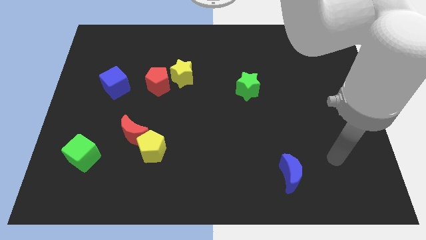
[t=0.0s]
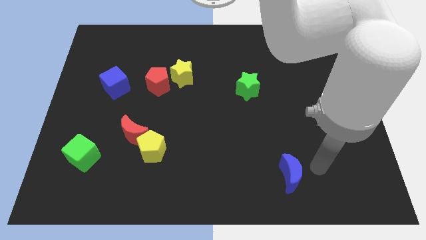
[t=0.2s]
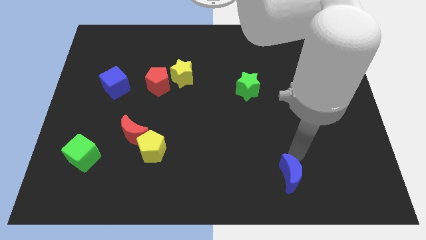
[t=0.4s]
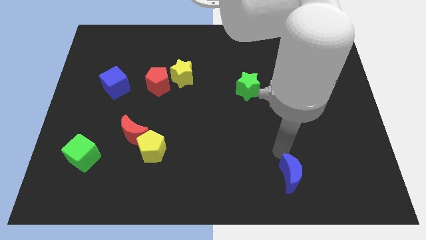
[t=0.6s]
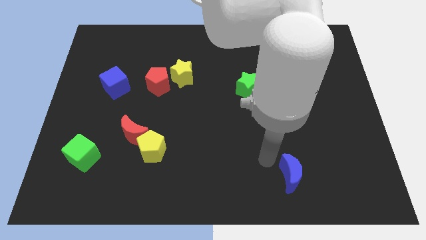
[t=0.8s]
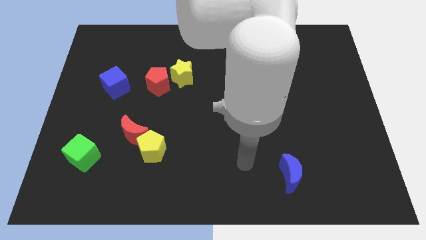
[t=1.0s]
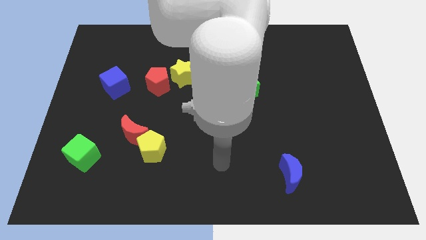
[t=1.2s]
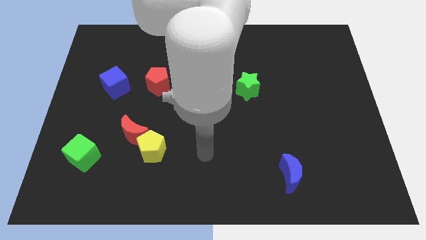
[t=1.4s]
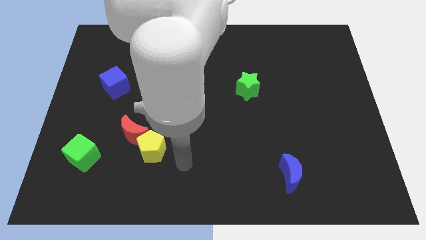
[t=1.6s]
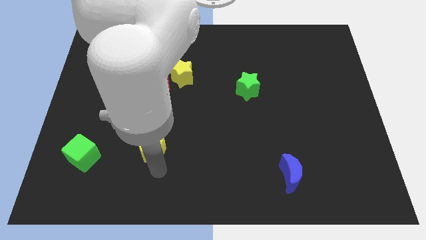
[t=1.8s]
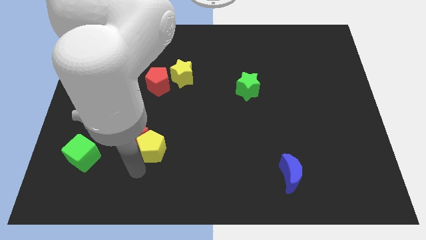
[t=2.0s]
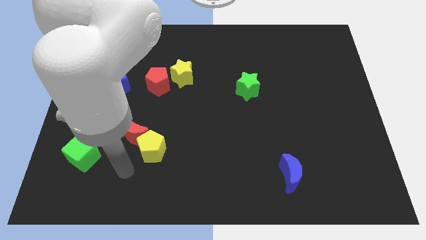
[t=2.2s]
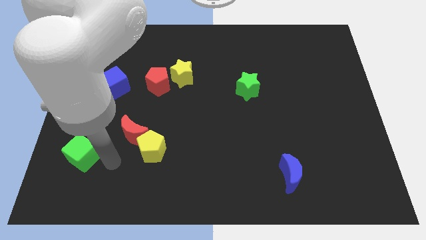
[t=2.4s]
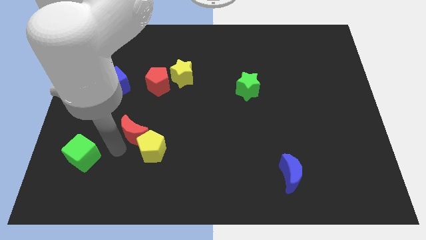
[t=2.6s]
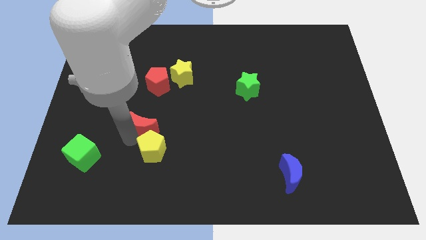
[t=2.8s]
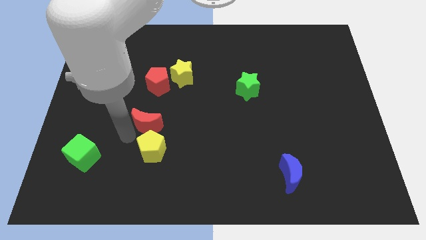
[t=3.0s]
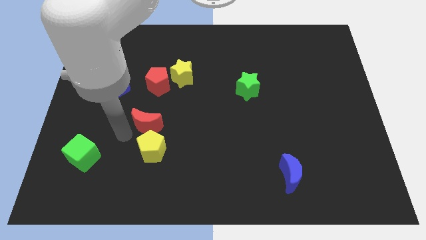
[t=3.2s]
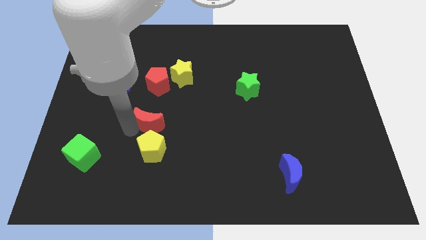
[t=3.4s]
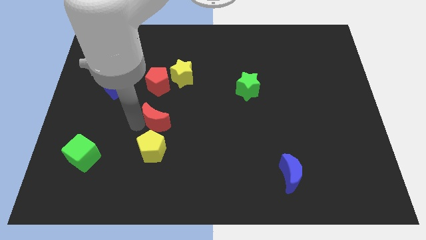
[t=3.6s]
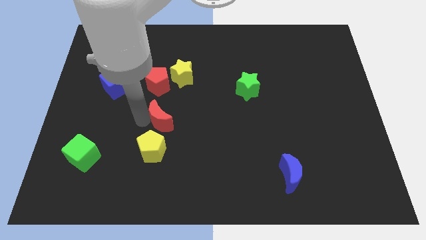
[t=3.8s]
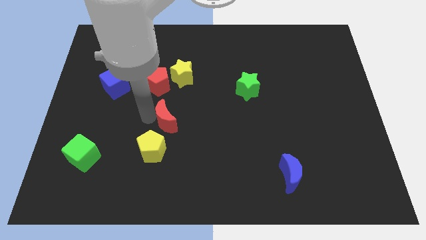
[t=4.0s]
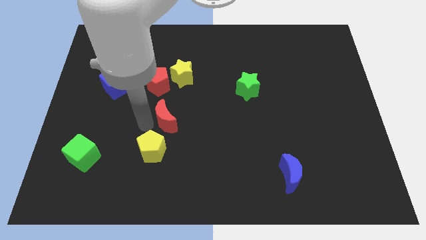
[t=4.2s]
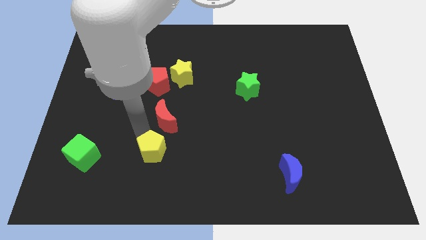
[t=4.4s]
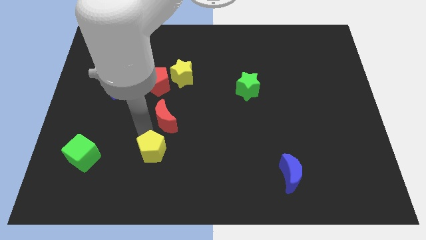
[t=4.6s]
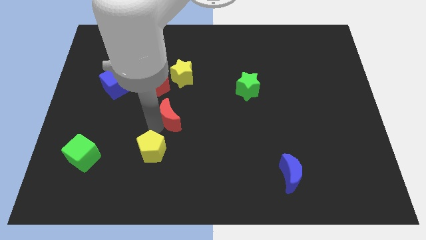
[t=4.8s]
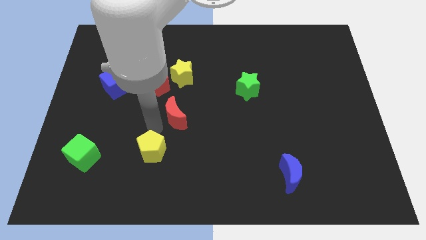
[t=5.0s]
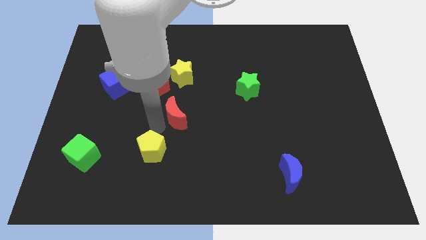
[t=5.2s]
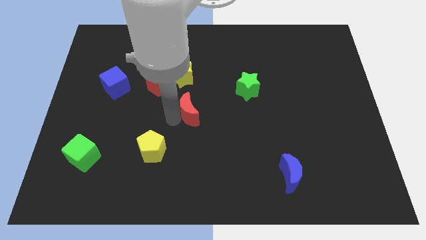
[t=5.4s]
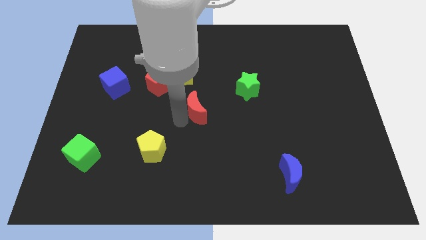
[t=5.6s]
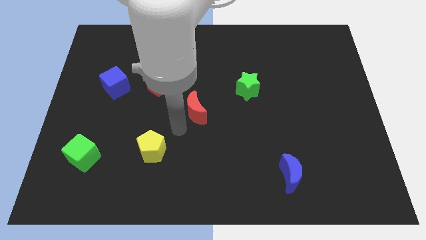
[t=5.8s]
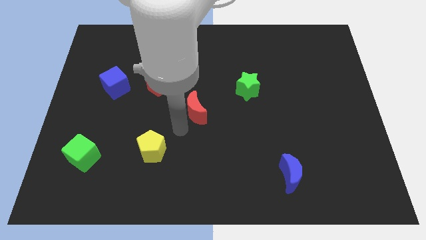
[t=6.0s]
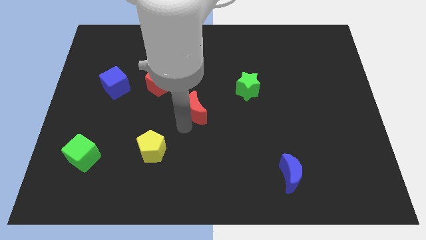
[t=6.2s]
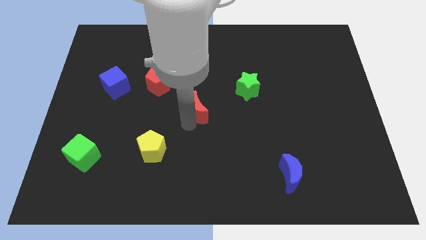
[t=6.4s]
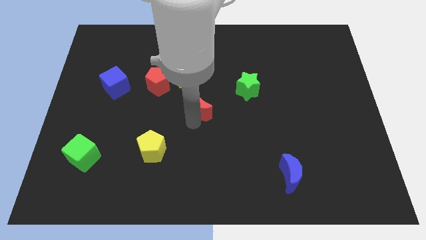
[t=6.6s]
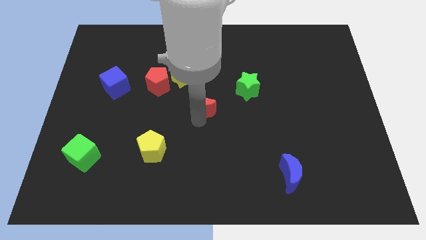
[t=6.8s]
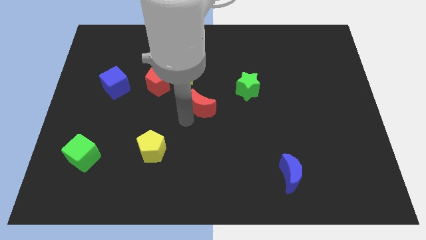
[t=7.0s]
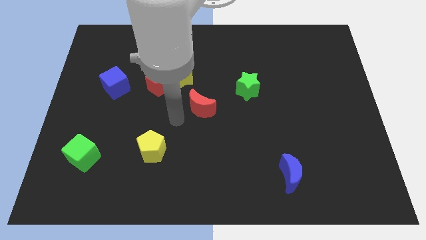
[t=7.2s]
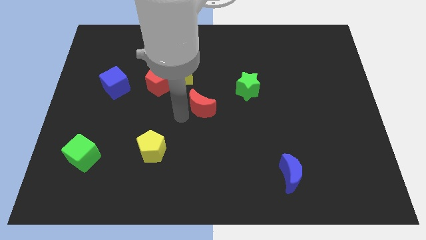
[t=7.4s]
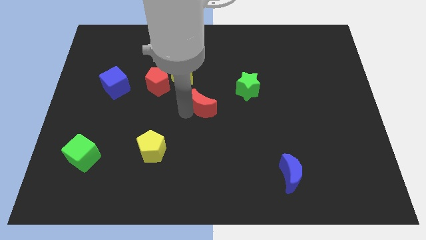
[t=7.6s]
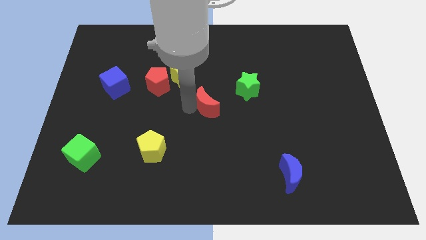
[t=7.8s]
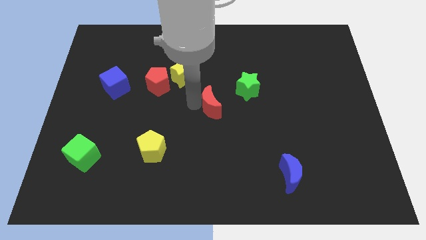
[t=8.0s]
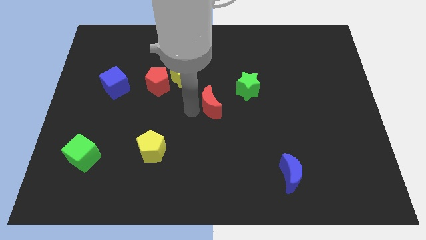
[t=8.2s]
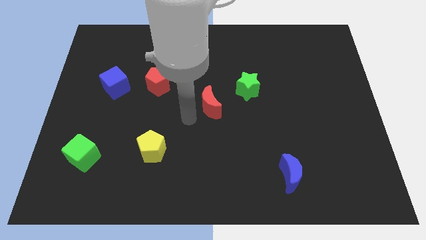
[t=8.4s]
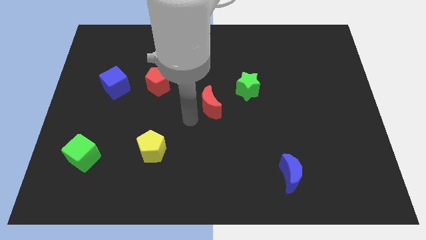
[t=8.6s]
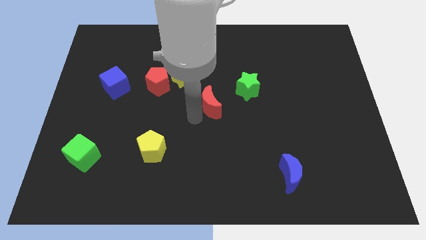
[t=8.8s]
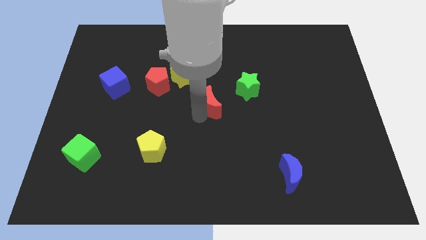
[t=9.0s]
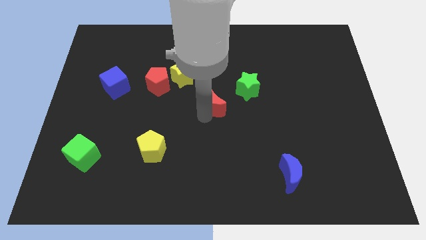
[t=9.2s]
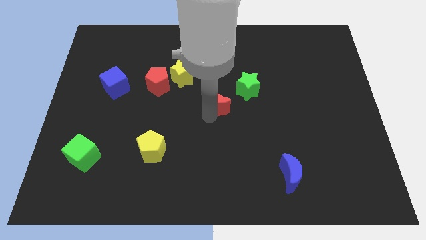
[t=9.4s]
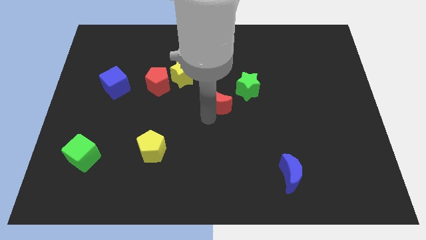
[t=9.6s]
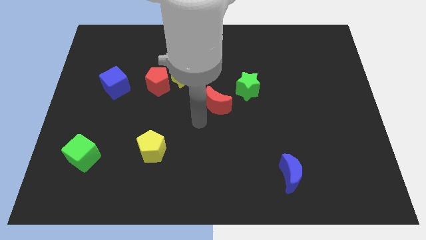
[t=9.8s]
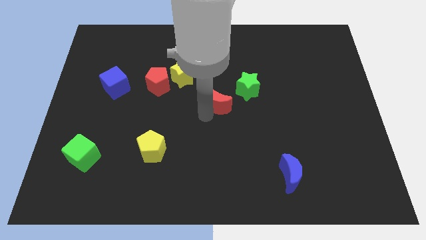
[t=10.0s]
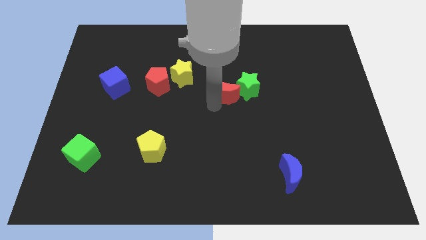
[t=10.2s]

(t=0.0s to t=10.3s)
move the red moon close to the green star

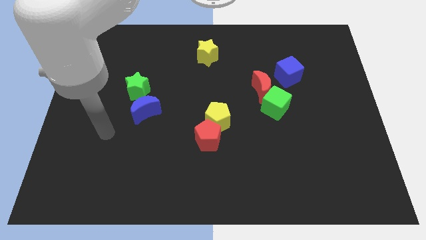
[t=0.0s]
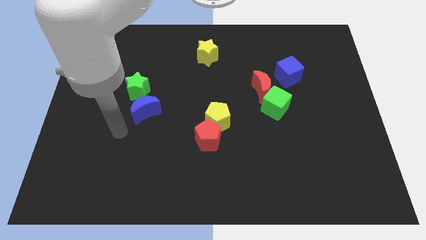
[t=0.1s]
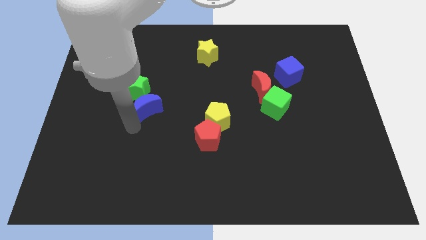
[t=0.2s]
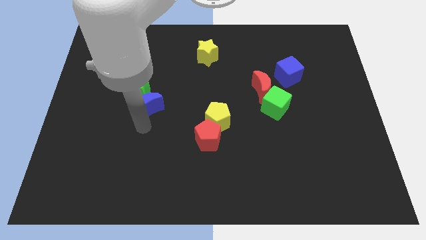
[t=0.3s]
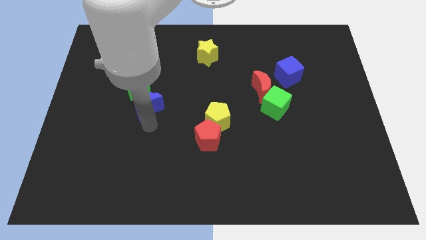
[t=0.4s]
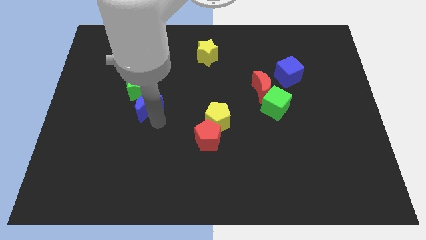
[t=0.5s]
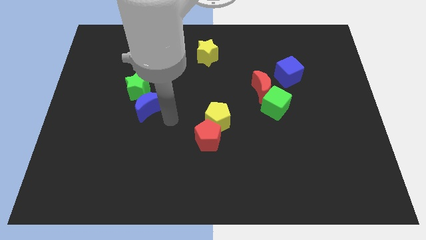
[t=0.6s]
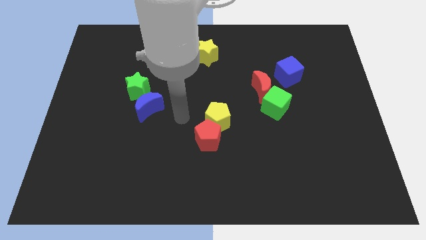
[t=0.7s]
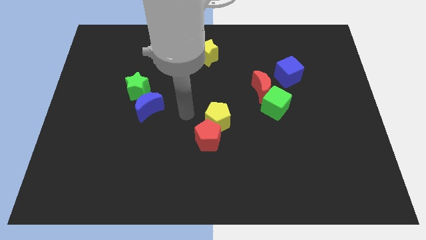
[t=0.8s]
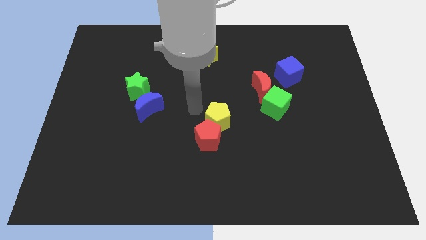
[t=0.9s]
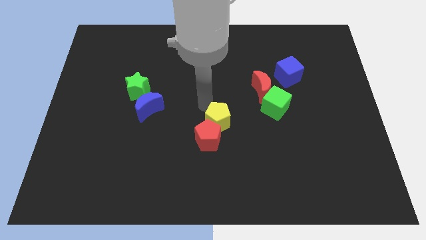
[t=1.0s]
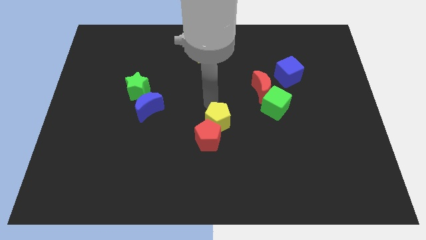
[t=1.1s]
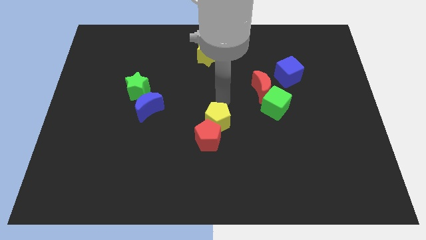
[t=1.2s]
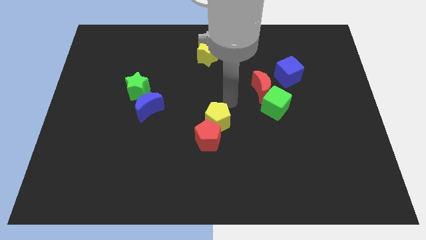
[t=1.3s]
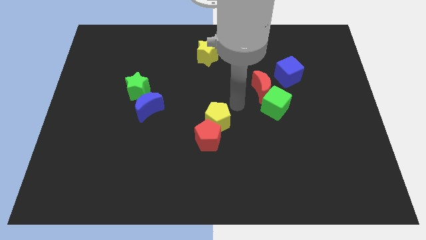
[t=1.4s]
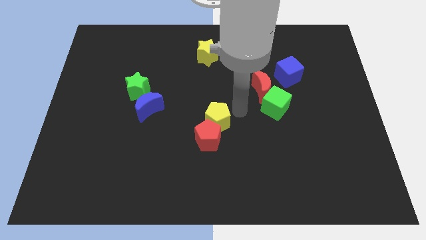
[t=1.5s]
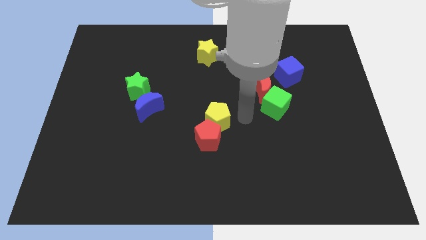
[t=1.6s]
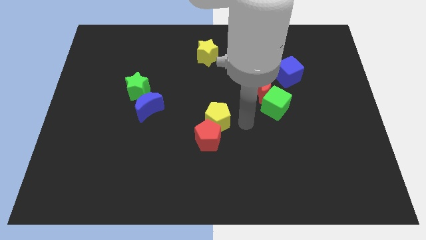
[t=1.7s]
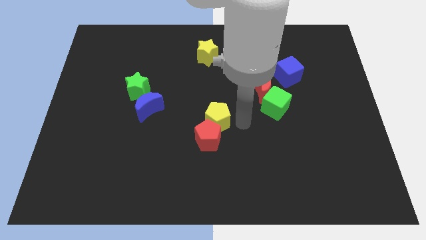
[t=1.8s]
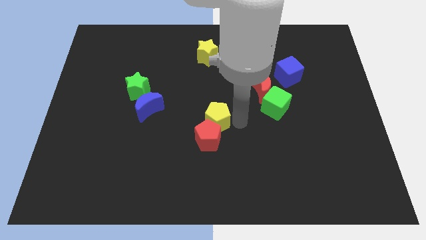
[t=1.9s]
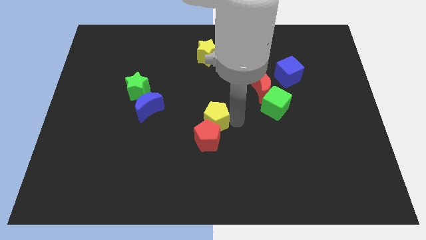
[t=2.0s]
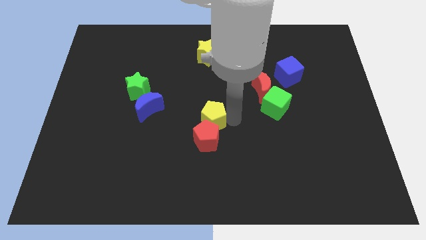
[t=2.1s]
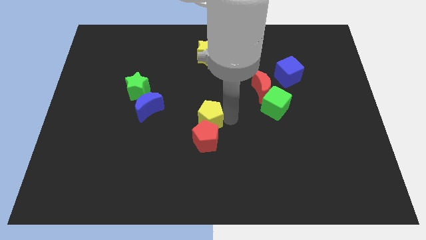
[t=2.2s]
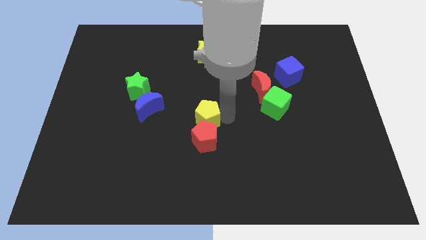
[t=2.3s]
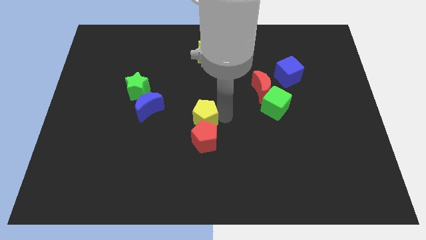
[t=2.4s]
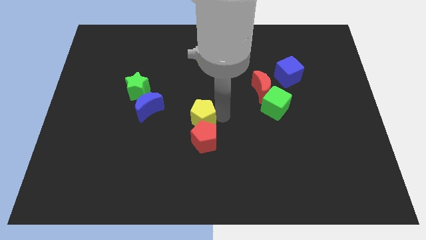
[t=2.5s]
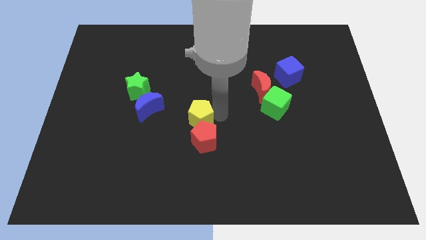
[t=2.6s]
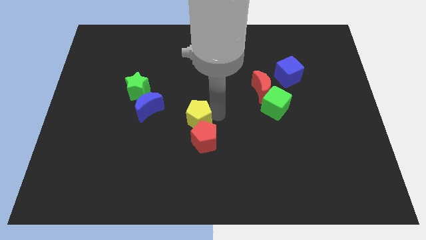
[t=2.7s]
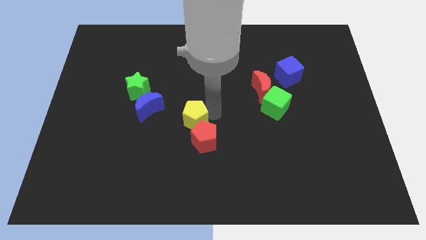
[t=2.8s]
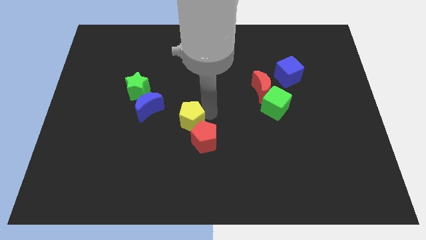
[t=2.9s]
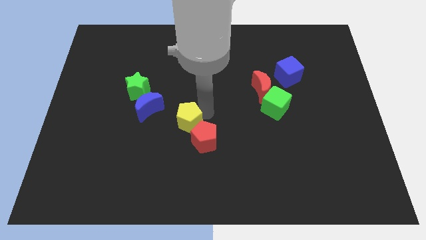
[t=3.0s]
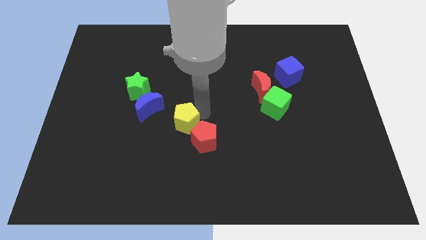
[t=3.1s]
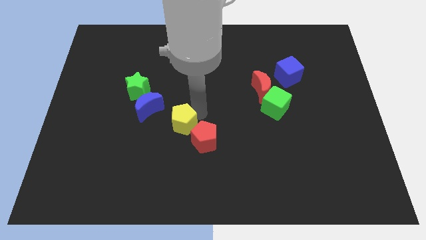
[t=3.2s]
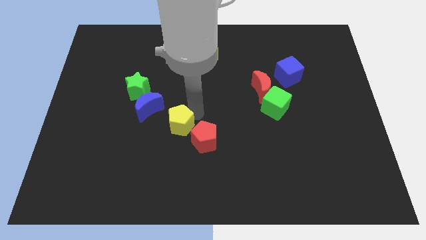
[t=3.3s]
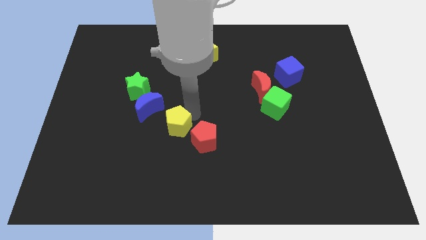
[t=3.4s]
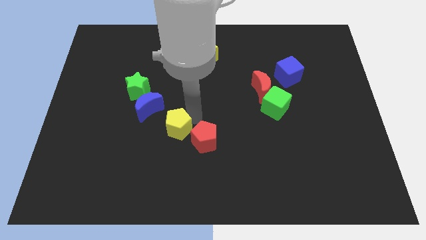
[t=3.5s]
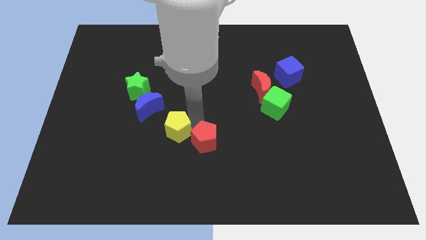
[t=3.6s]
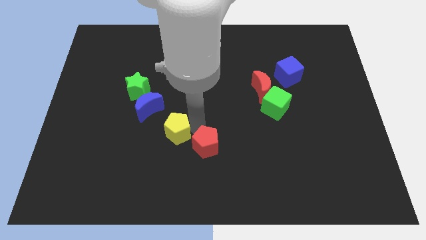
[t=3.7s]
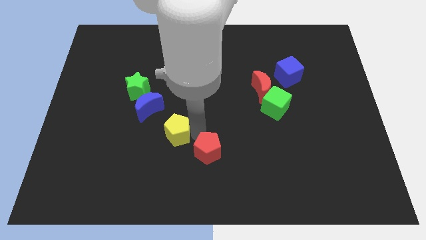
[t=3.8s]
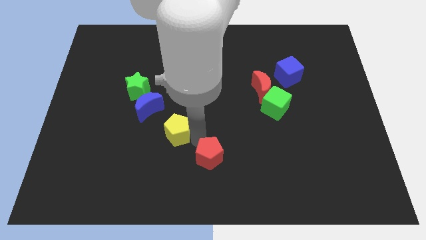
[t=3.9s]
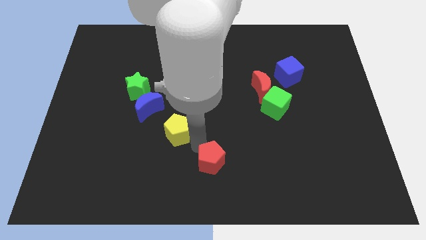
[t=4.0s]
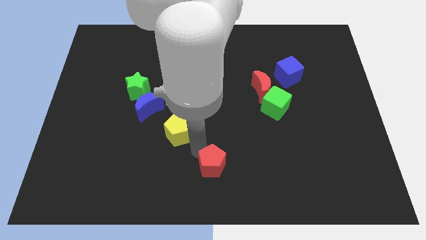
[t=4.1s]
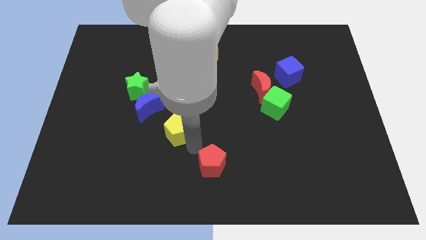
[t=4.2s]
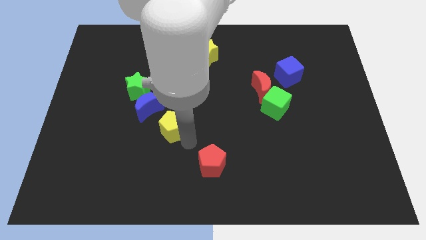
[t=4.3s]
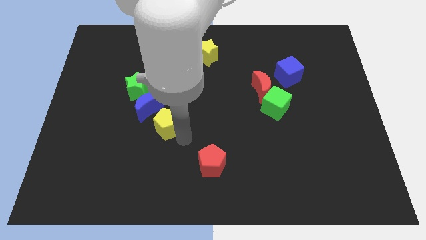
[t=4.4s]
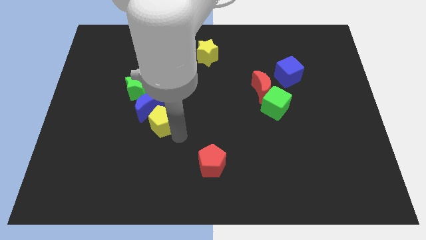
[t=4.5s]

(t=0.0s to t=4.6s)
push the yellow pentagon close to the blue moon
